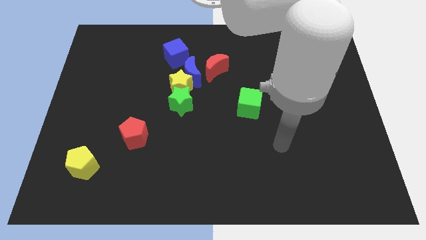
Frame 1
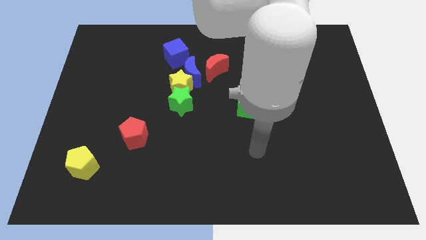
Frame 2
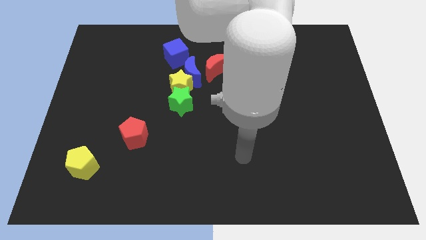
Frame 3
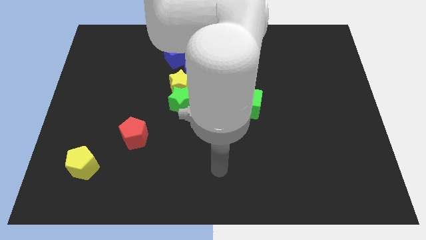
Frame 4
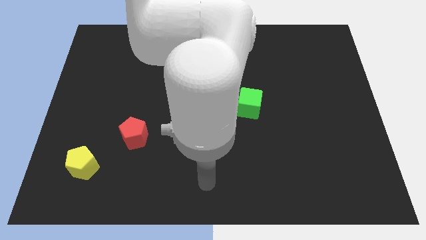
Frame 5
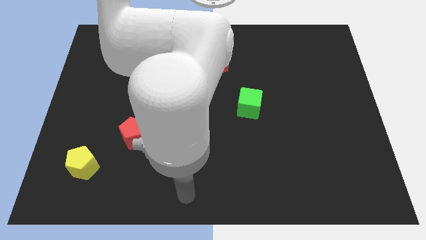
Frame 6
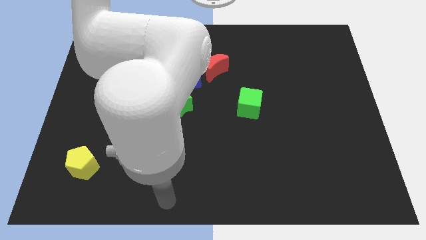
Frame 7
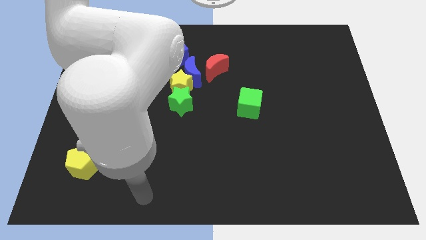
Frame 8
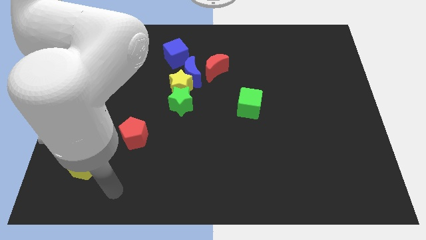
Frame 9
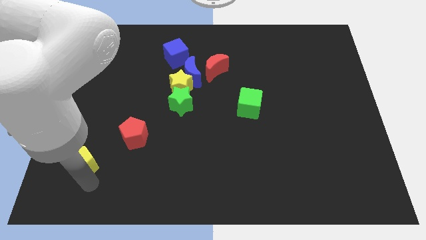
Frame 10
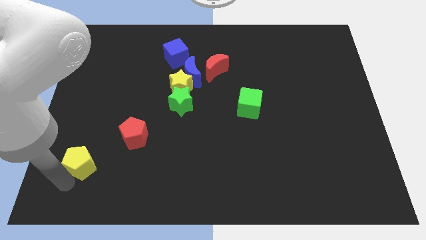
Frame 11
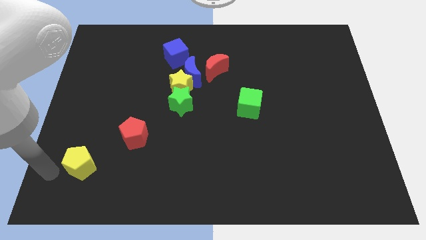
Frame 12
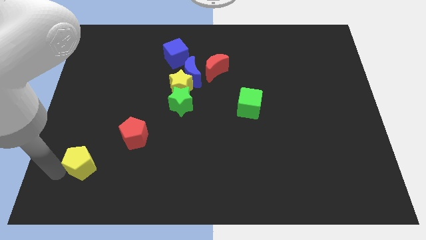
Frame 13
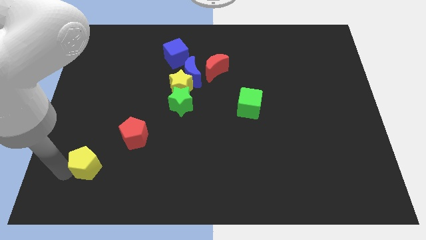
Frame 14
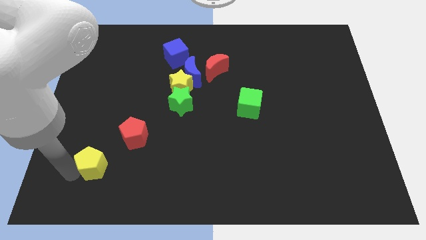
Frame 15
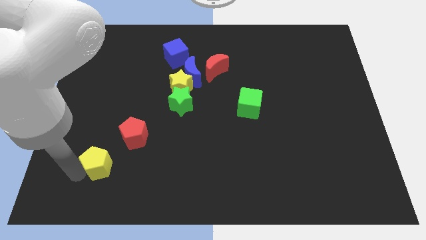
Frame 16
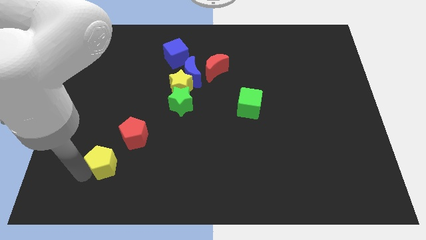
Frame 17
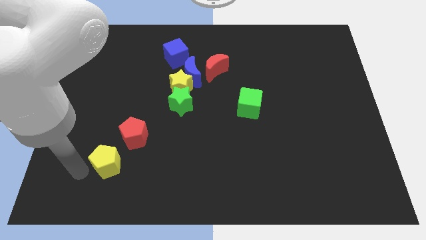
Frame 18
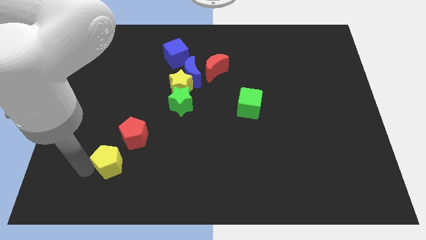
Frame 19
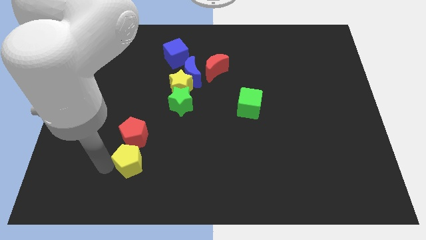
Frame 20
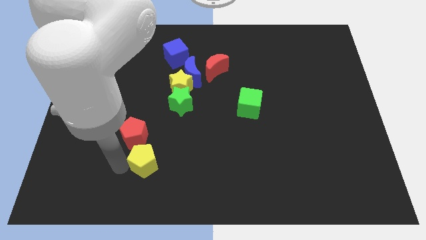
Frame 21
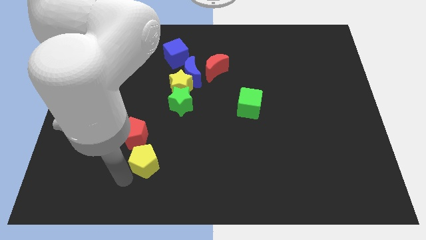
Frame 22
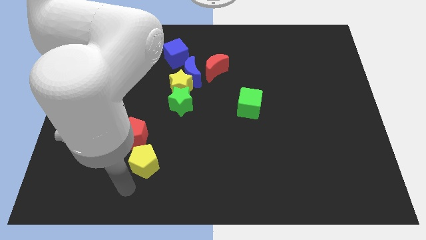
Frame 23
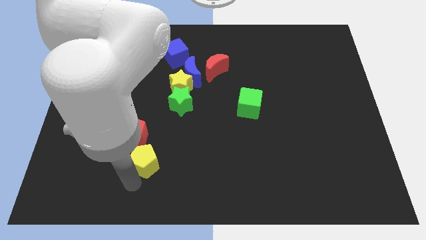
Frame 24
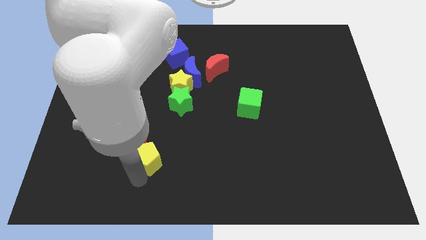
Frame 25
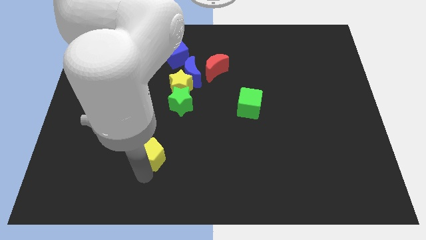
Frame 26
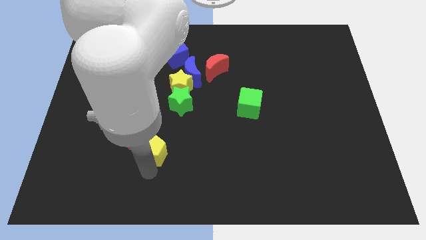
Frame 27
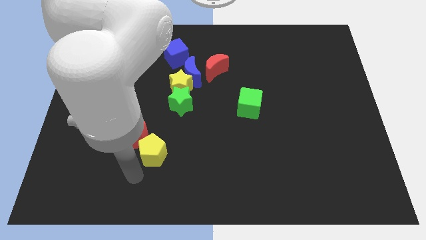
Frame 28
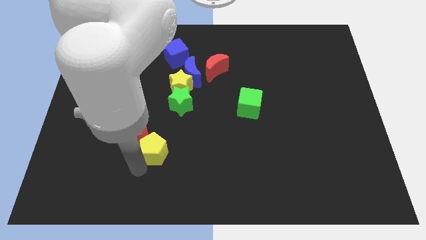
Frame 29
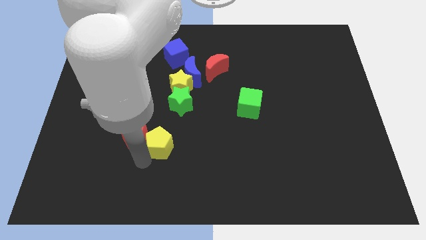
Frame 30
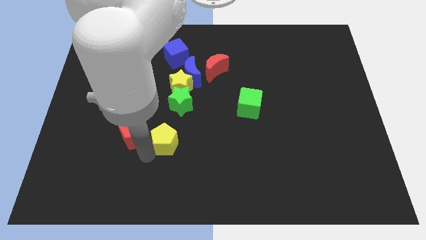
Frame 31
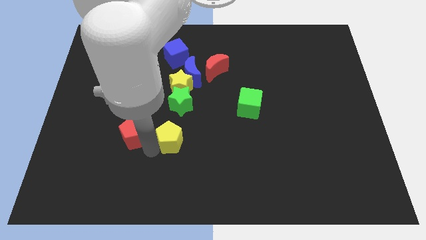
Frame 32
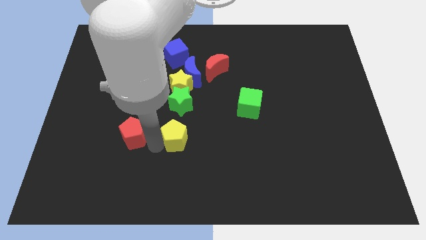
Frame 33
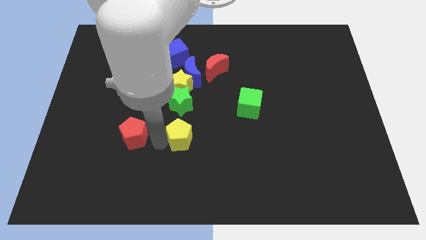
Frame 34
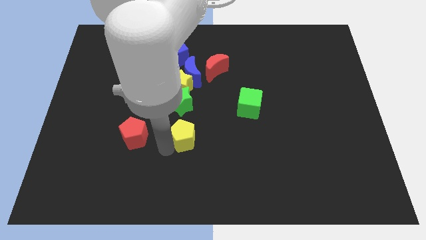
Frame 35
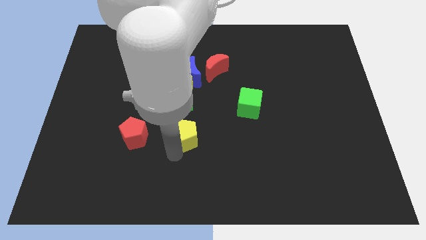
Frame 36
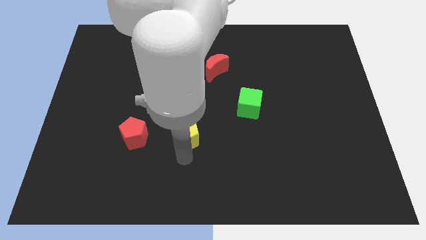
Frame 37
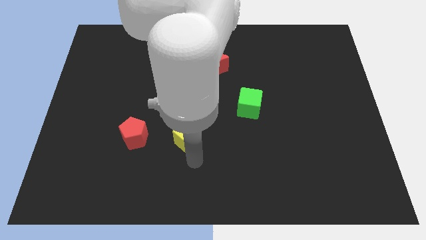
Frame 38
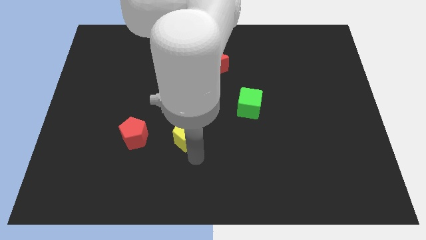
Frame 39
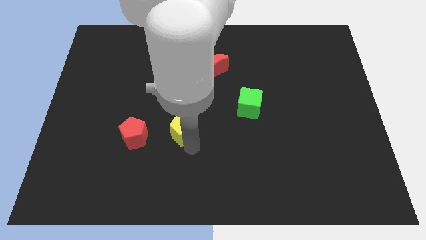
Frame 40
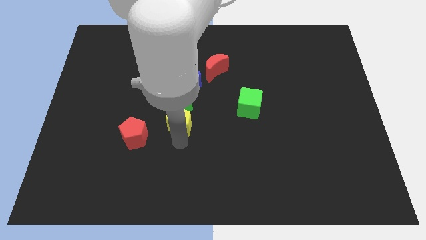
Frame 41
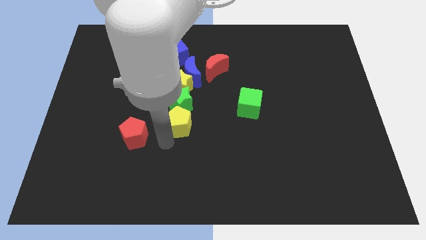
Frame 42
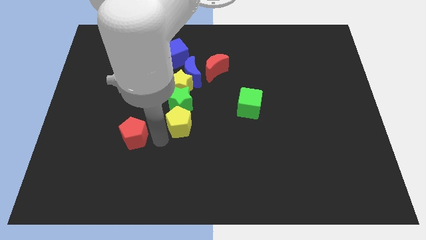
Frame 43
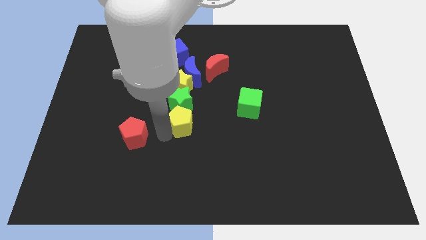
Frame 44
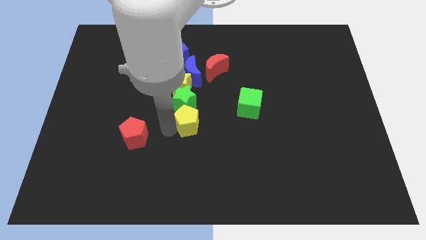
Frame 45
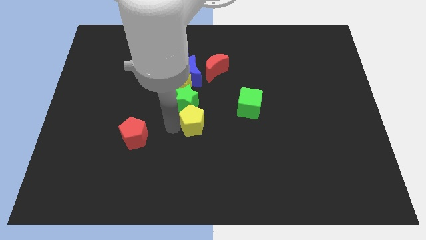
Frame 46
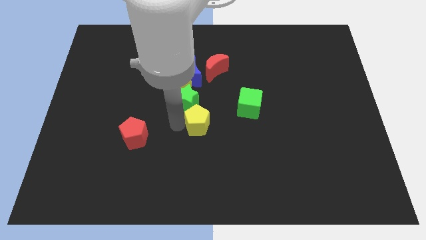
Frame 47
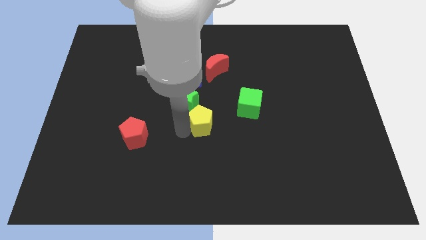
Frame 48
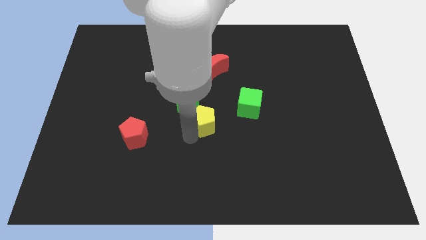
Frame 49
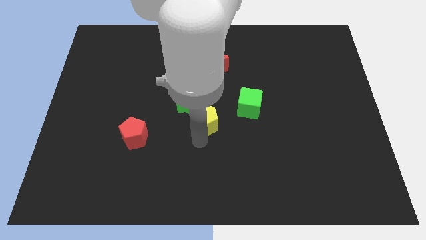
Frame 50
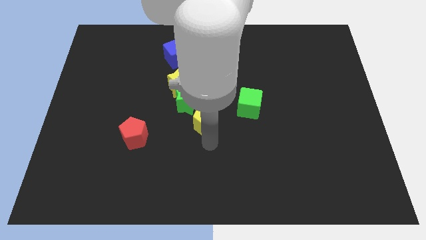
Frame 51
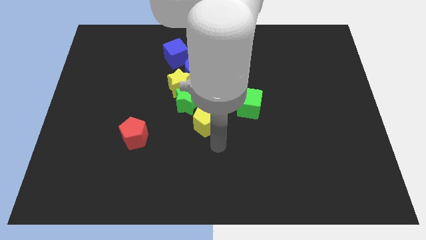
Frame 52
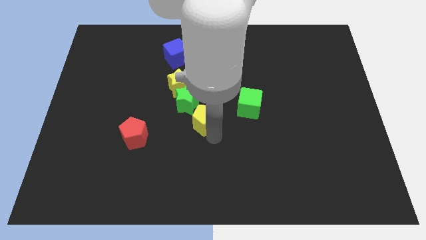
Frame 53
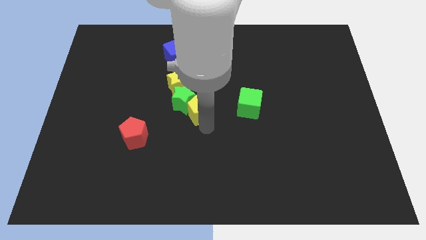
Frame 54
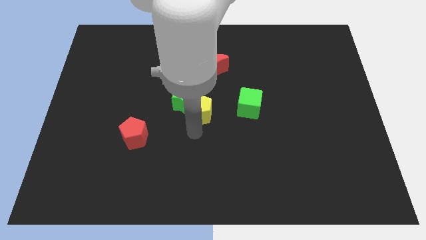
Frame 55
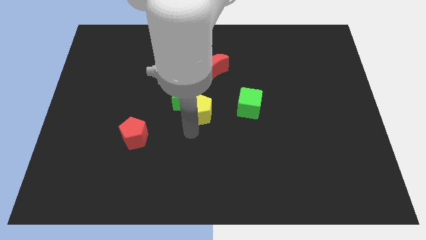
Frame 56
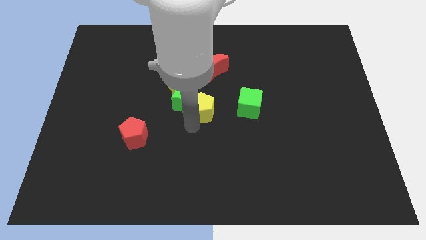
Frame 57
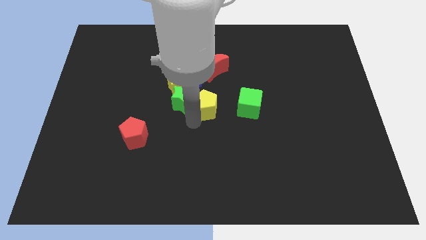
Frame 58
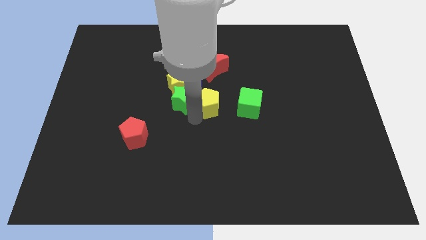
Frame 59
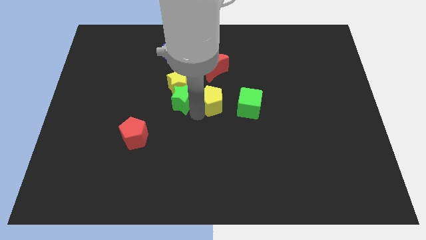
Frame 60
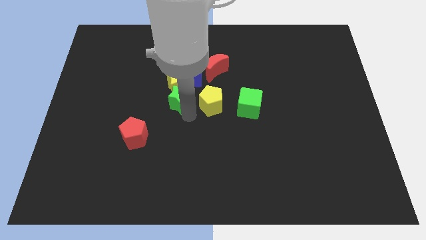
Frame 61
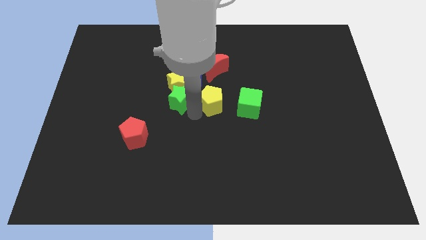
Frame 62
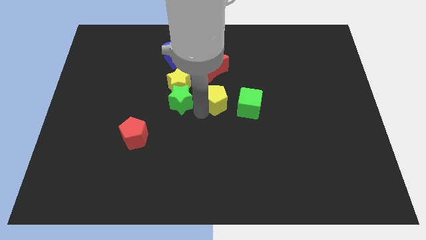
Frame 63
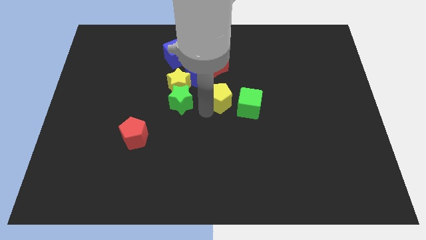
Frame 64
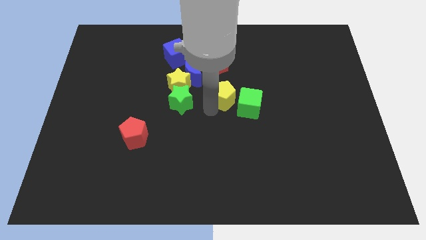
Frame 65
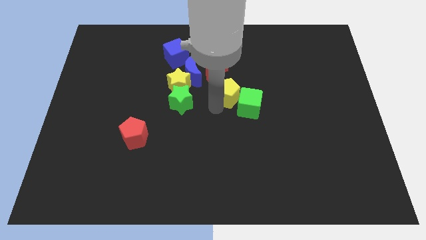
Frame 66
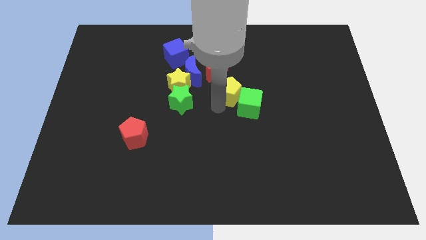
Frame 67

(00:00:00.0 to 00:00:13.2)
slide the yellow pentagon to the top of the green cube

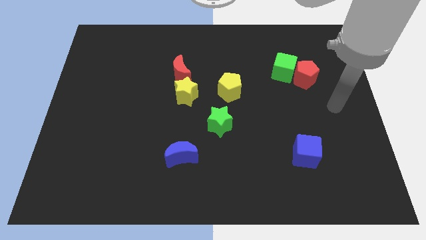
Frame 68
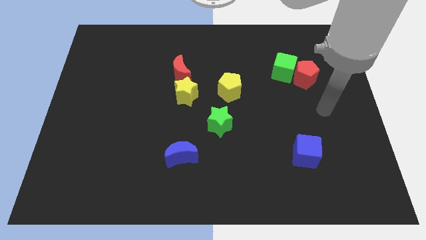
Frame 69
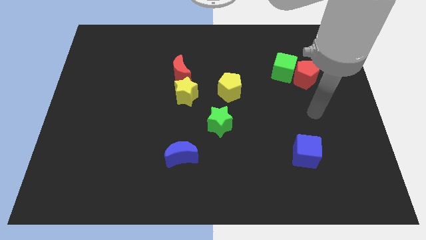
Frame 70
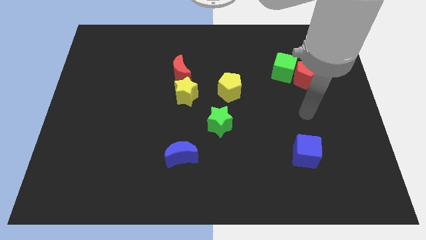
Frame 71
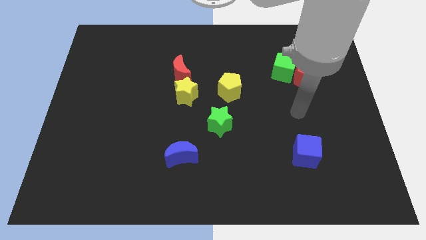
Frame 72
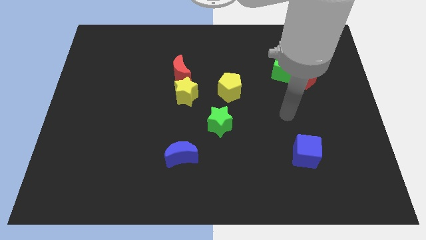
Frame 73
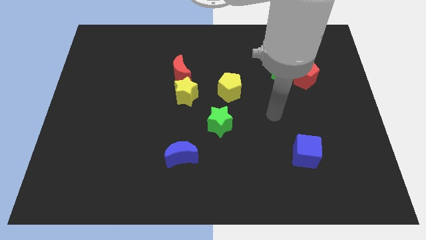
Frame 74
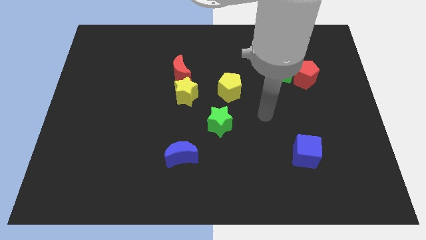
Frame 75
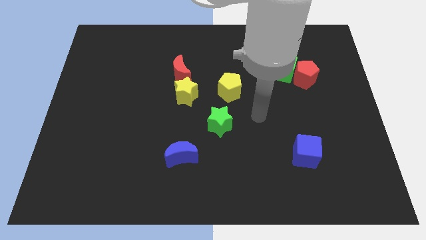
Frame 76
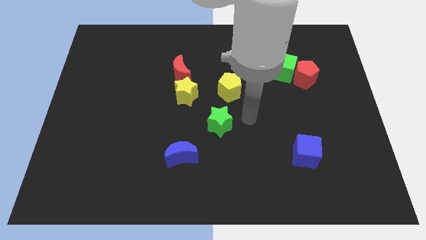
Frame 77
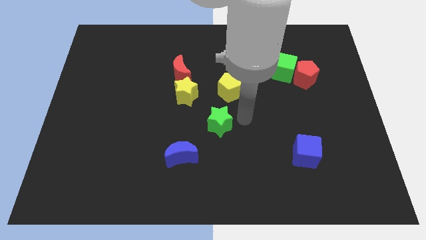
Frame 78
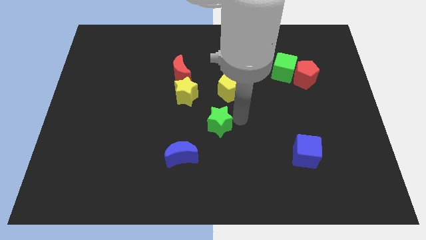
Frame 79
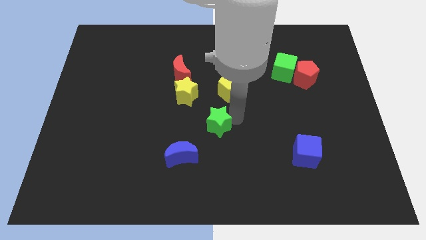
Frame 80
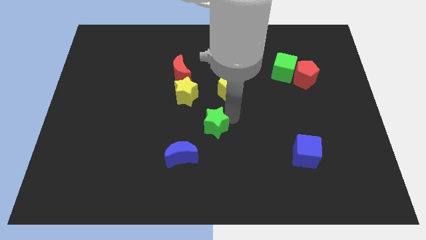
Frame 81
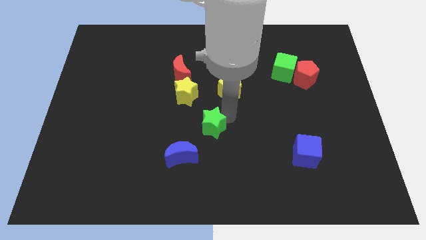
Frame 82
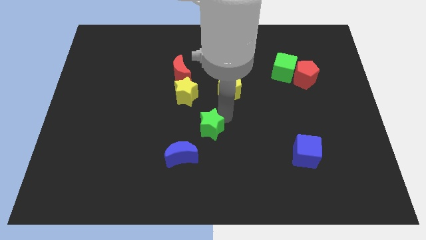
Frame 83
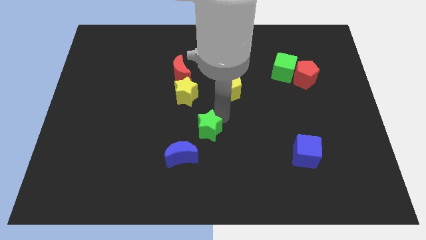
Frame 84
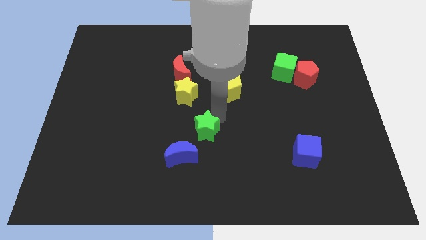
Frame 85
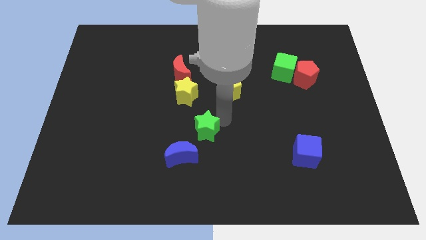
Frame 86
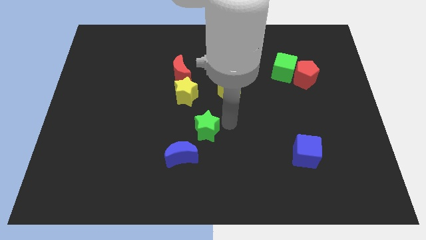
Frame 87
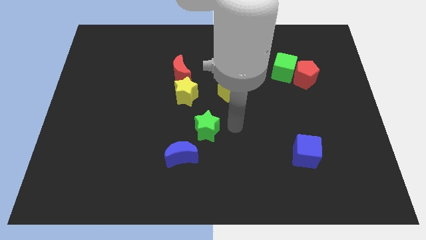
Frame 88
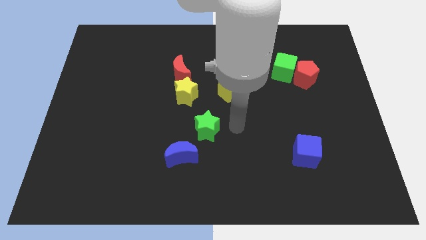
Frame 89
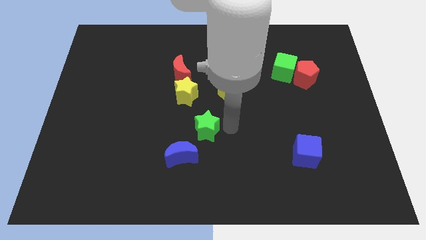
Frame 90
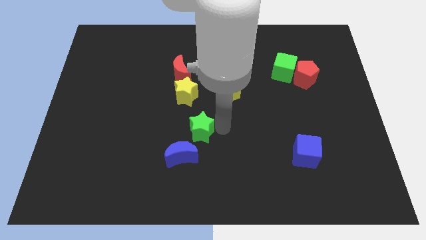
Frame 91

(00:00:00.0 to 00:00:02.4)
put the green star to the bottom side of the yellow star
